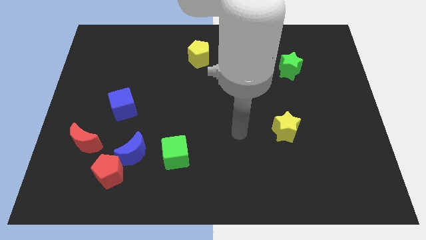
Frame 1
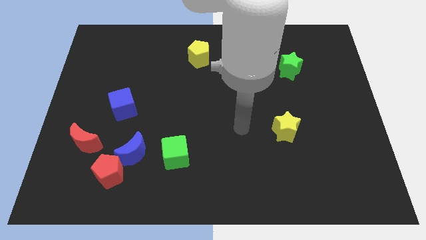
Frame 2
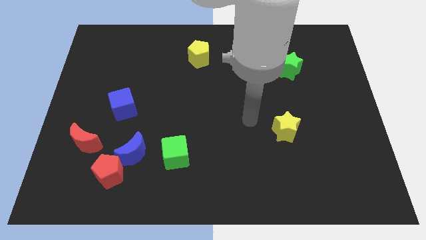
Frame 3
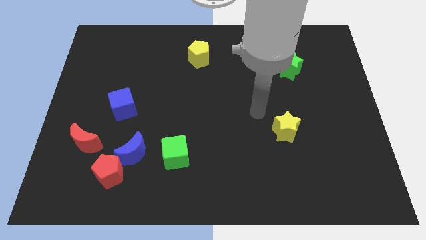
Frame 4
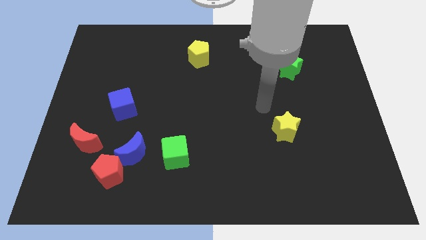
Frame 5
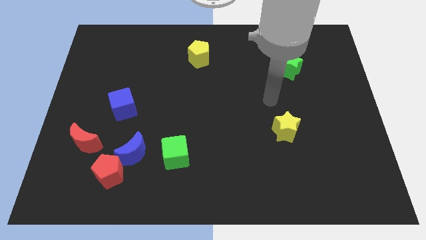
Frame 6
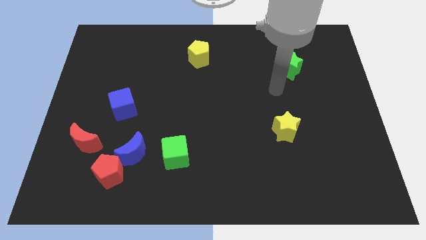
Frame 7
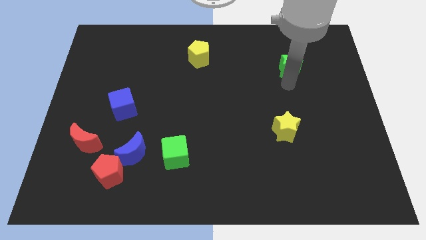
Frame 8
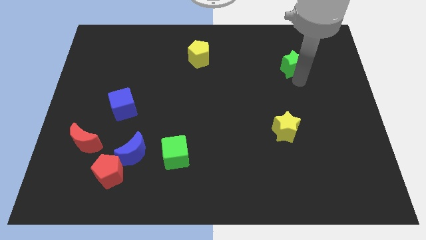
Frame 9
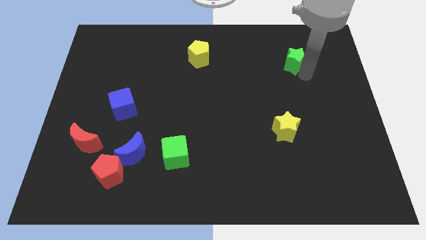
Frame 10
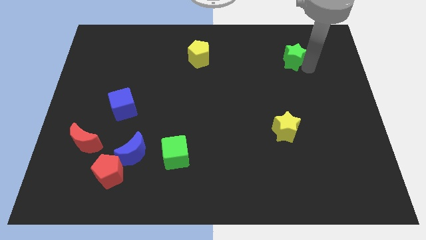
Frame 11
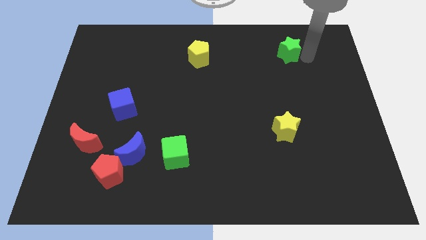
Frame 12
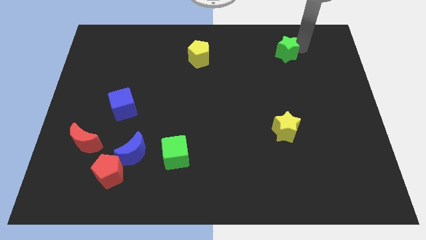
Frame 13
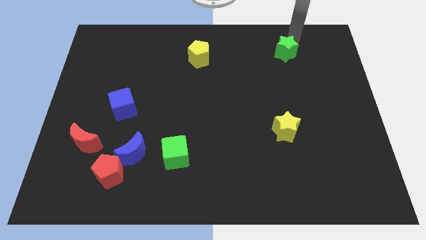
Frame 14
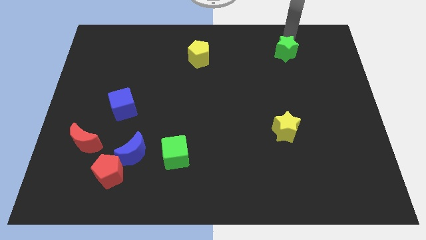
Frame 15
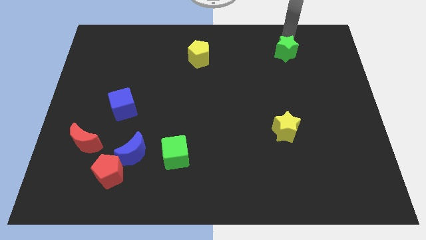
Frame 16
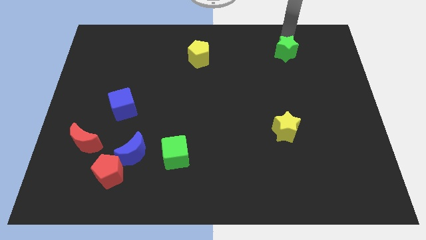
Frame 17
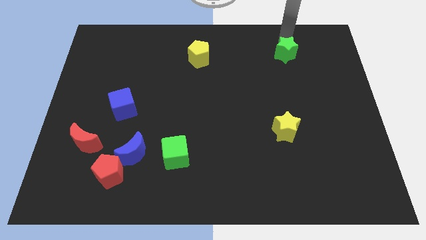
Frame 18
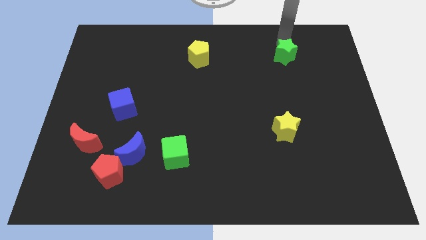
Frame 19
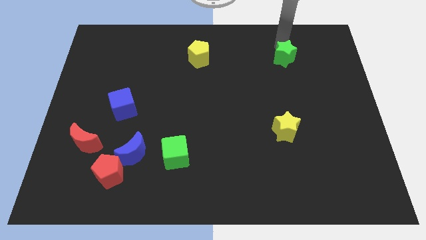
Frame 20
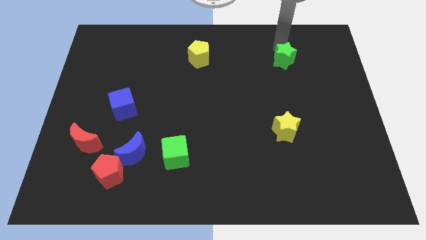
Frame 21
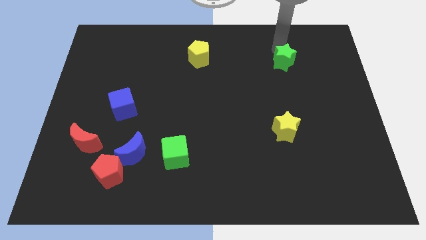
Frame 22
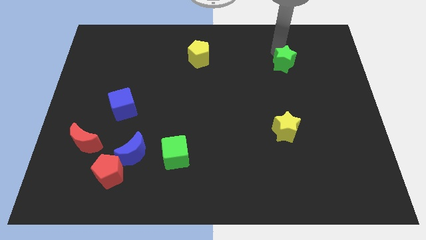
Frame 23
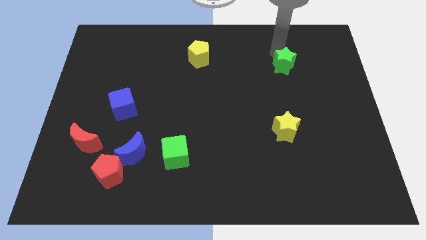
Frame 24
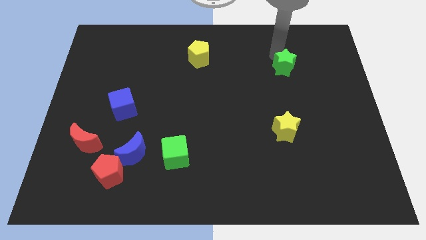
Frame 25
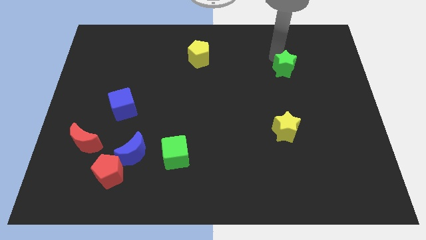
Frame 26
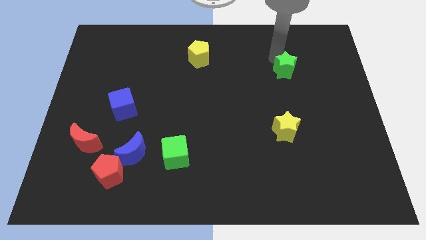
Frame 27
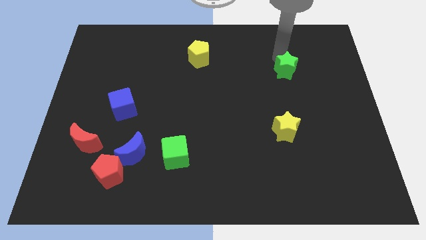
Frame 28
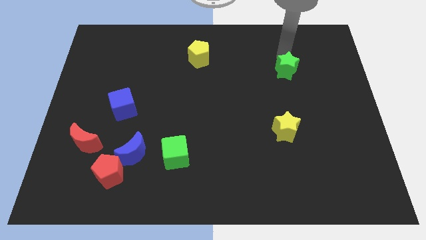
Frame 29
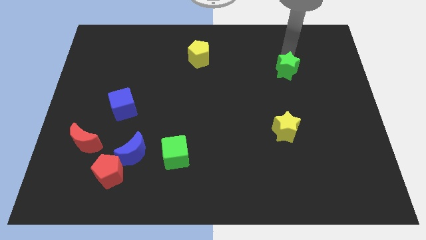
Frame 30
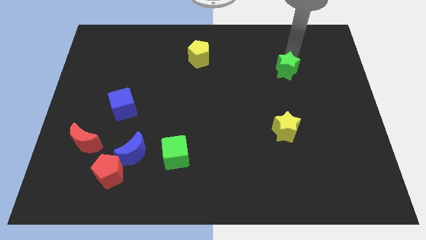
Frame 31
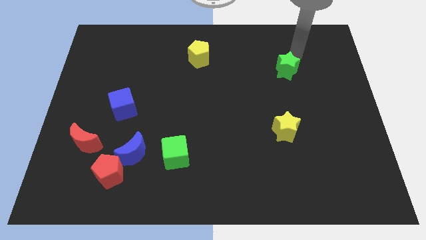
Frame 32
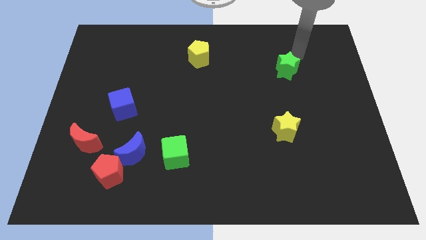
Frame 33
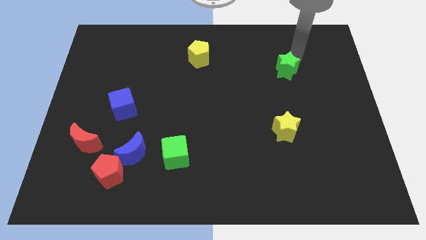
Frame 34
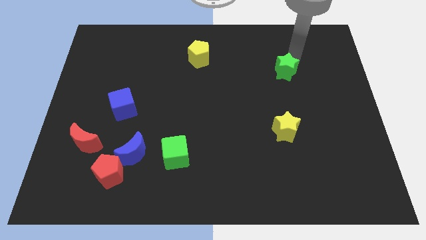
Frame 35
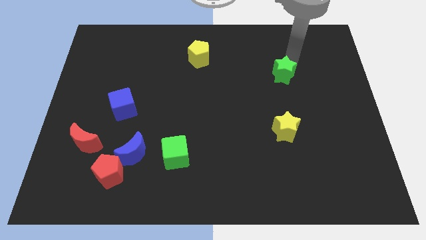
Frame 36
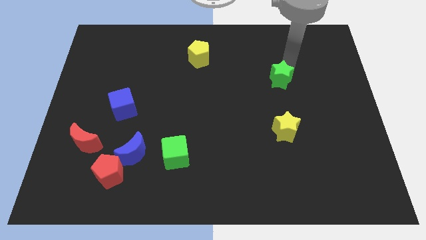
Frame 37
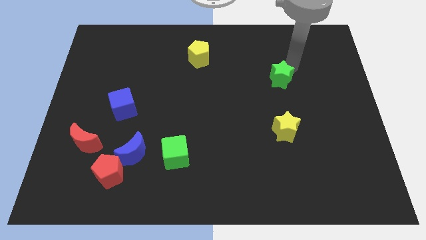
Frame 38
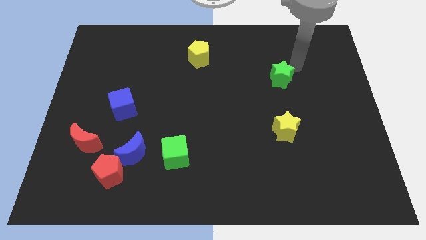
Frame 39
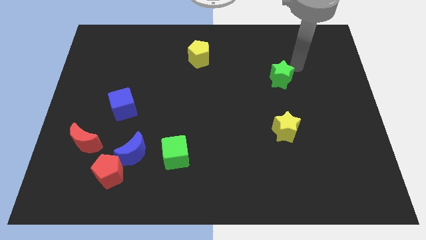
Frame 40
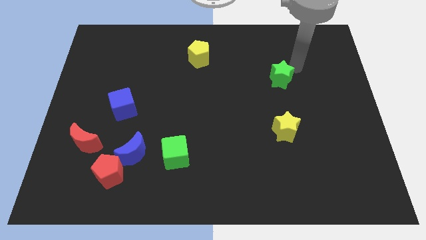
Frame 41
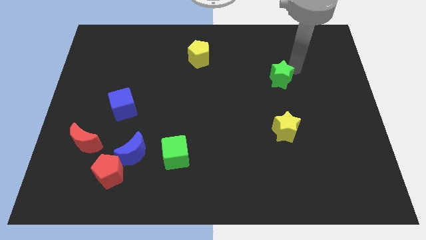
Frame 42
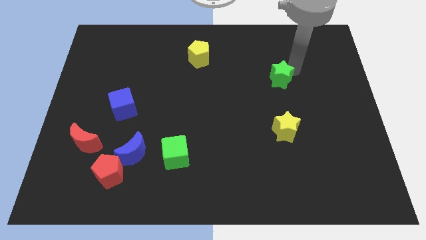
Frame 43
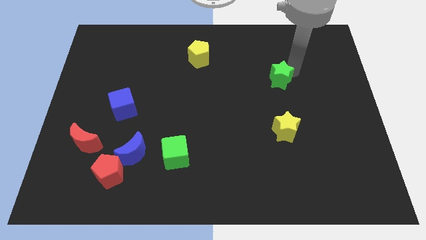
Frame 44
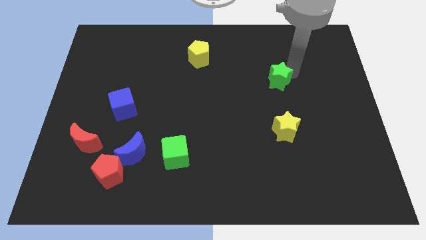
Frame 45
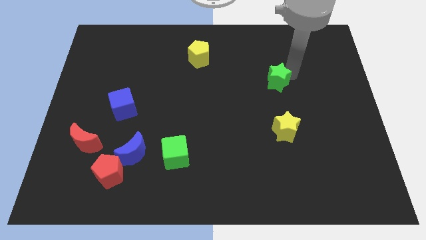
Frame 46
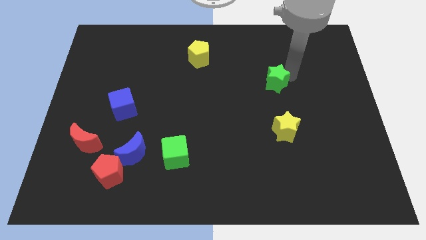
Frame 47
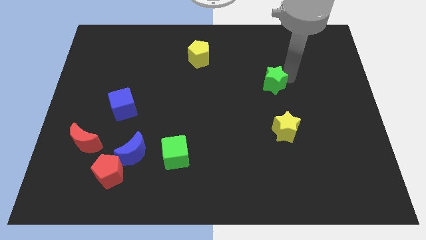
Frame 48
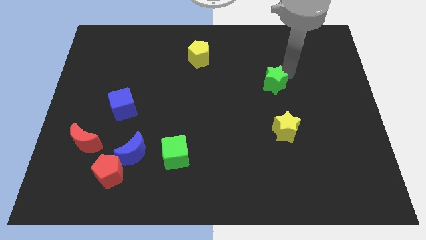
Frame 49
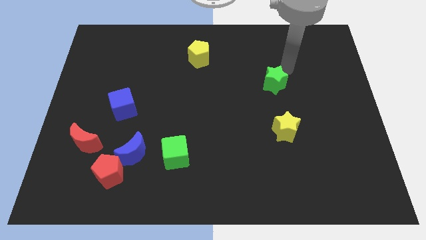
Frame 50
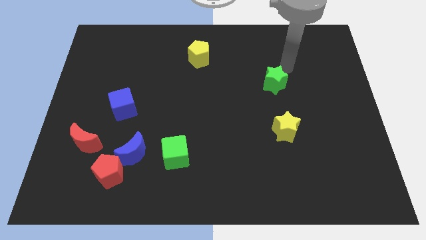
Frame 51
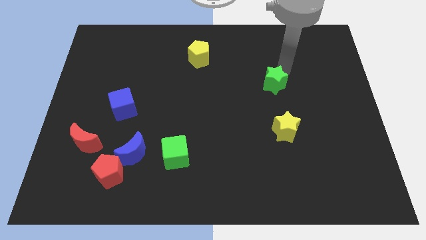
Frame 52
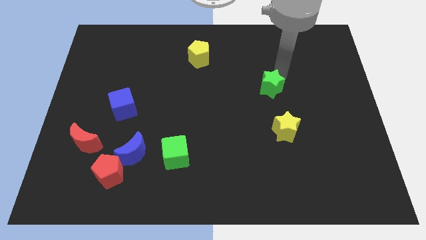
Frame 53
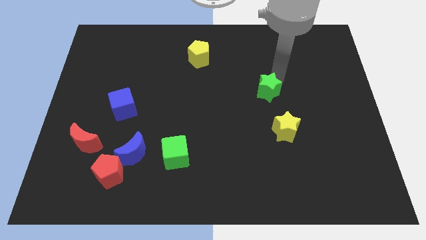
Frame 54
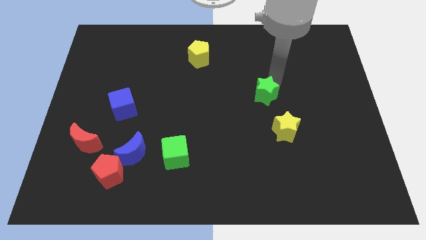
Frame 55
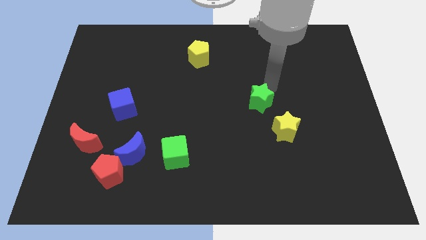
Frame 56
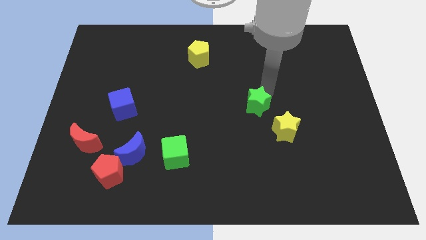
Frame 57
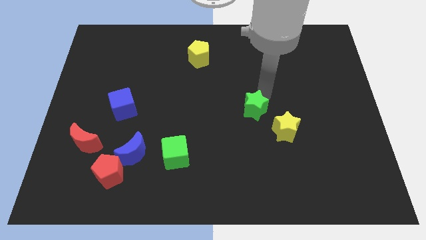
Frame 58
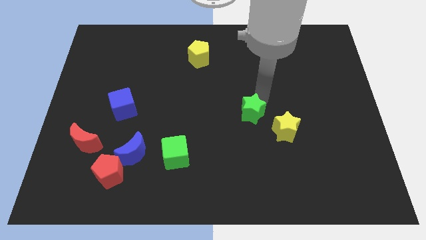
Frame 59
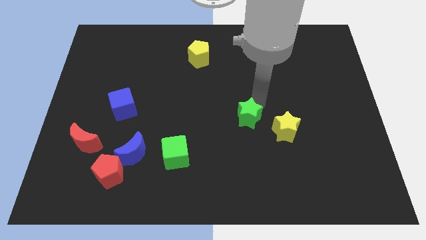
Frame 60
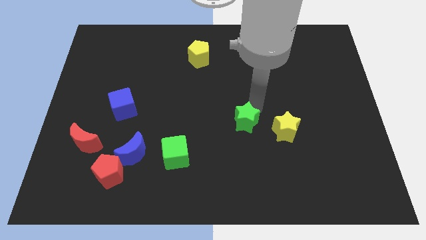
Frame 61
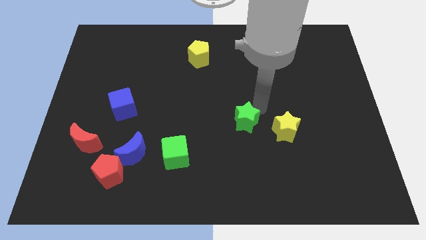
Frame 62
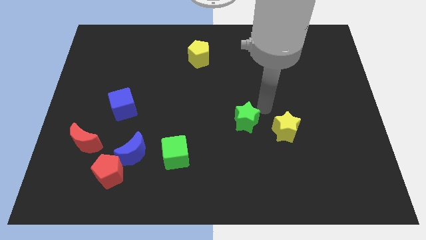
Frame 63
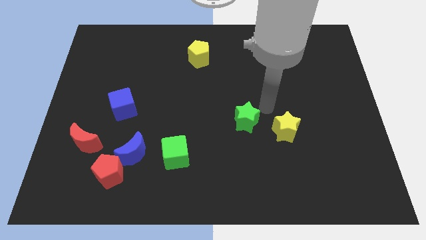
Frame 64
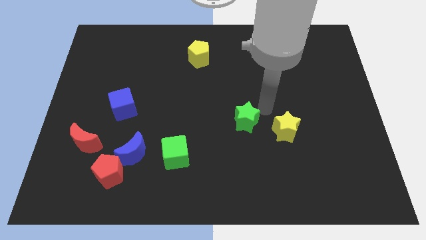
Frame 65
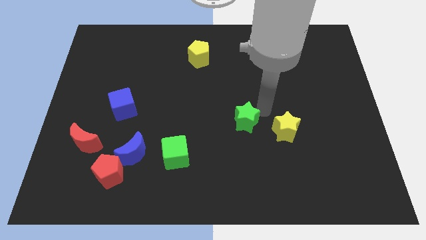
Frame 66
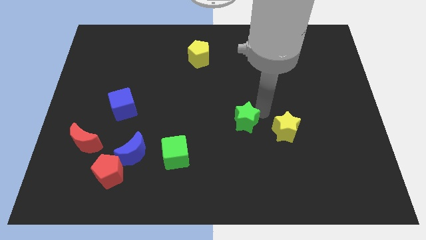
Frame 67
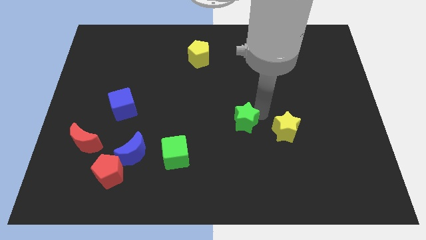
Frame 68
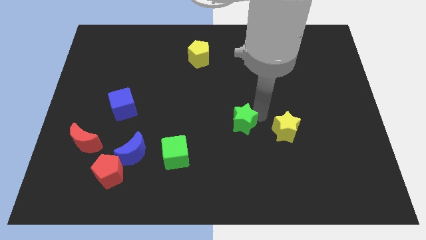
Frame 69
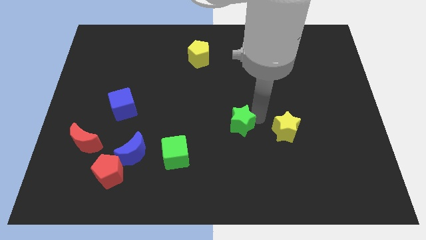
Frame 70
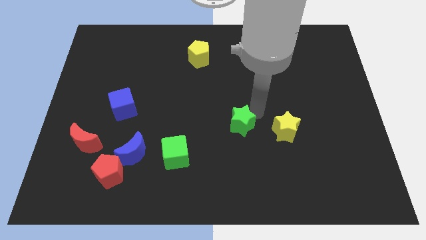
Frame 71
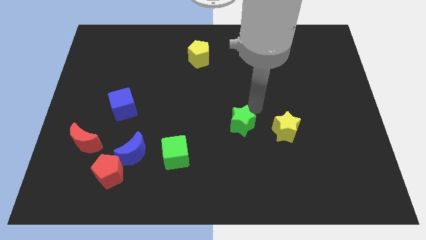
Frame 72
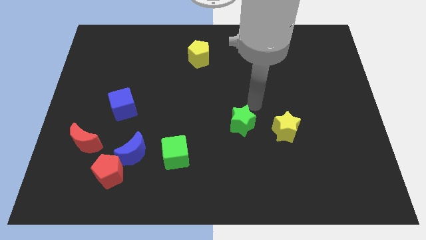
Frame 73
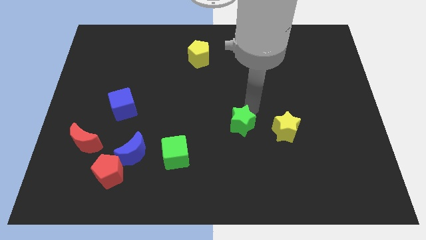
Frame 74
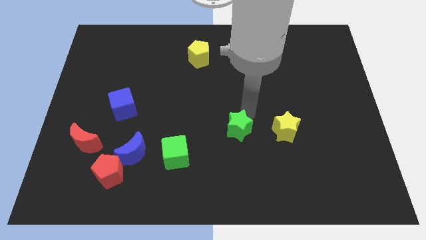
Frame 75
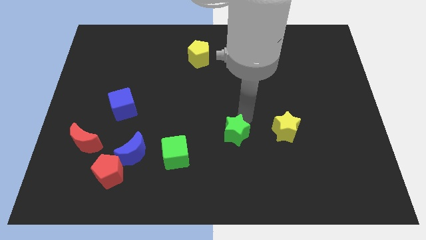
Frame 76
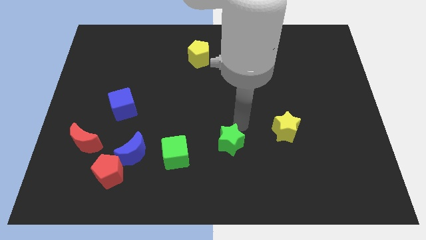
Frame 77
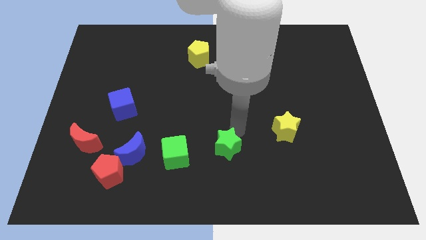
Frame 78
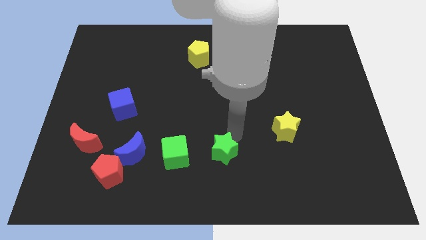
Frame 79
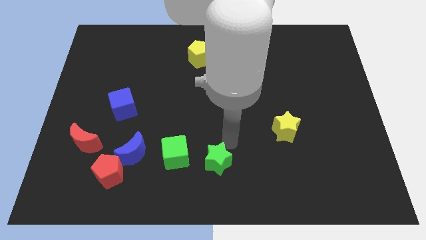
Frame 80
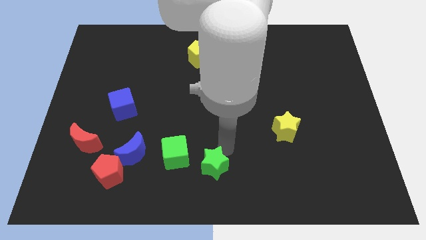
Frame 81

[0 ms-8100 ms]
move the green star to the bottom right side of the green cube
